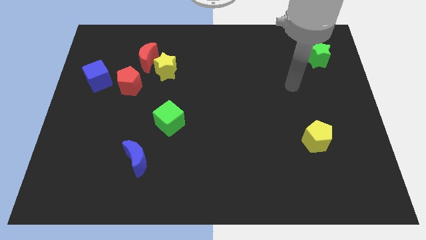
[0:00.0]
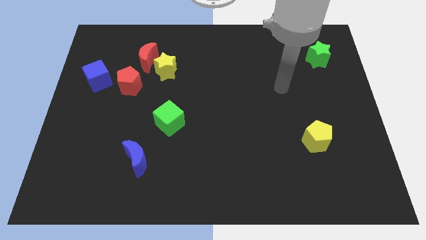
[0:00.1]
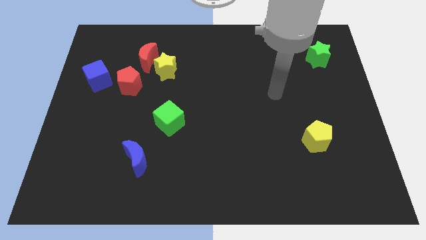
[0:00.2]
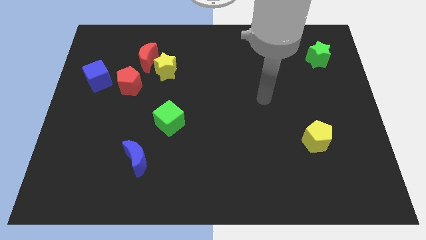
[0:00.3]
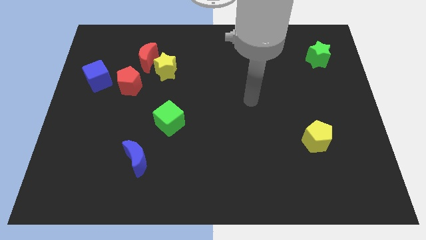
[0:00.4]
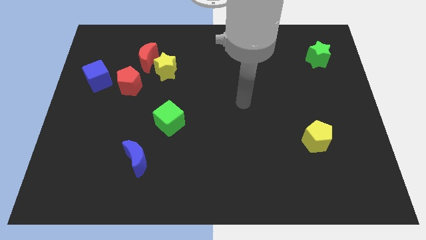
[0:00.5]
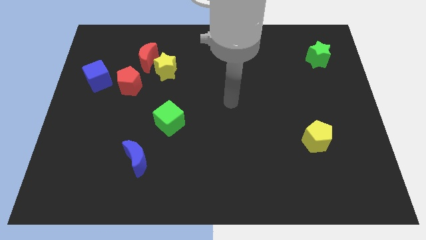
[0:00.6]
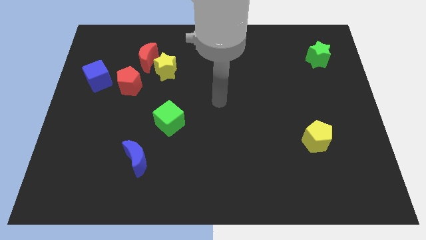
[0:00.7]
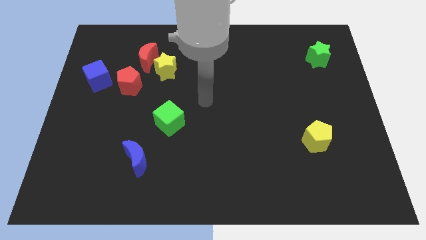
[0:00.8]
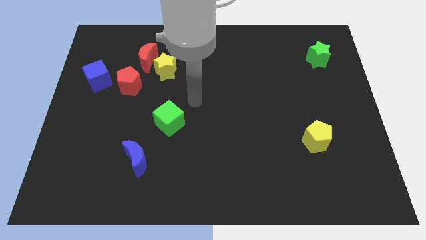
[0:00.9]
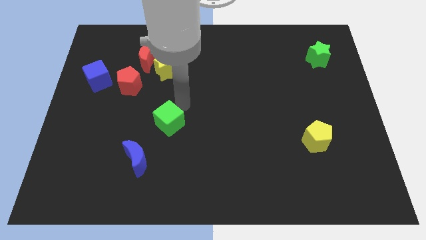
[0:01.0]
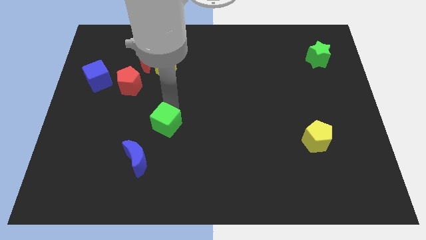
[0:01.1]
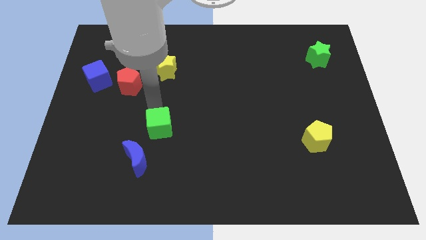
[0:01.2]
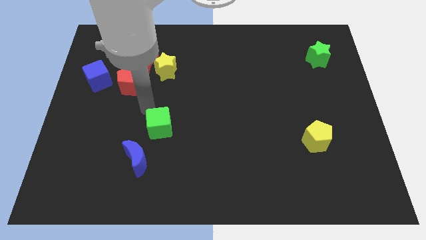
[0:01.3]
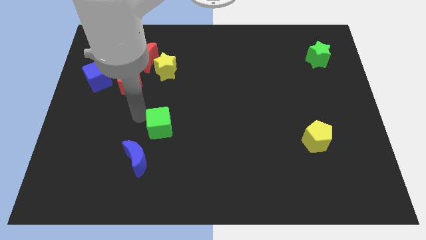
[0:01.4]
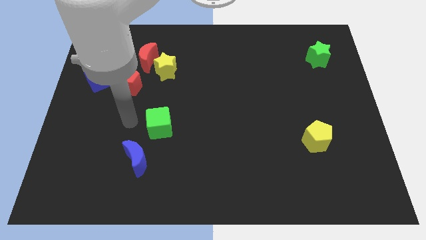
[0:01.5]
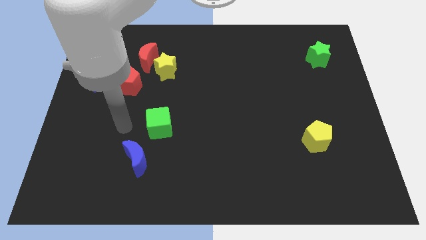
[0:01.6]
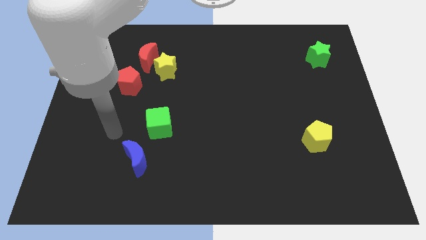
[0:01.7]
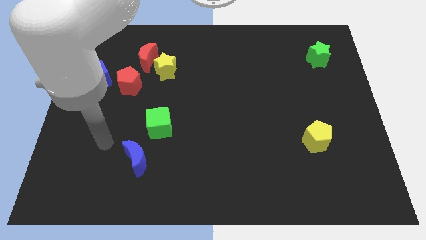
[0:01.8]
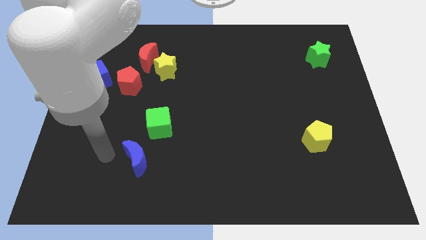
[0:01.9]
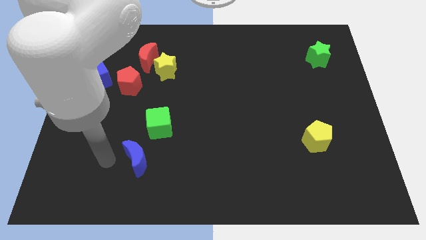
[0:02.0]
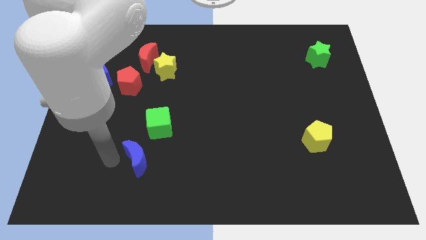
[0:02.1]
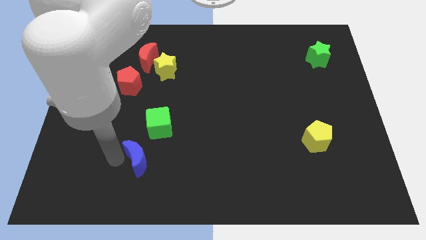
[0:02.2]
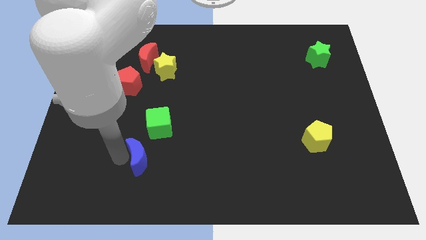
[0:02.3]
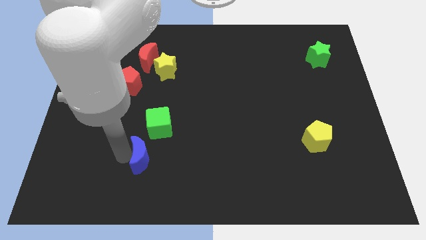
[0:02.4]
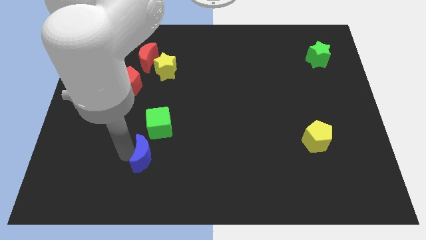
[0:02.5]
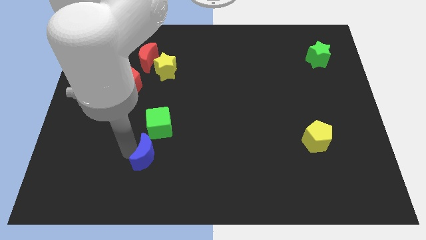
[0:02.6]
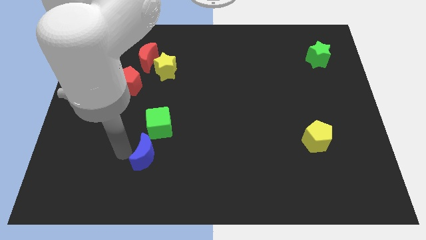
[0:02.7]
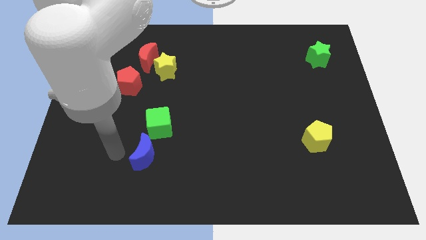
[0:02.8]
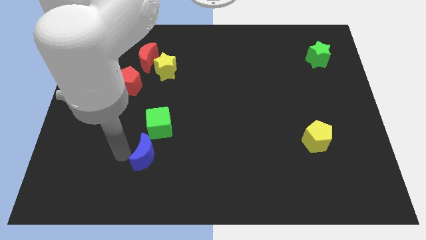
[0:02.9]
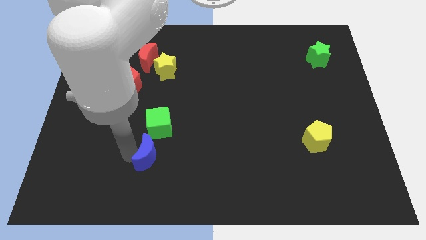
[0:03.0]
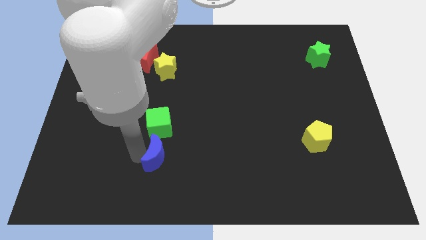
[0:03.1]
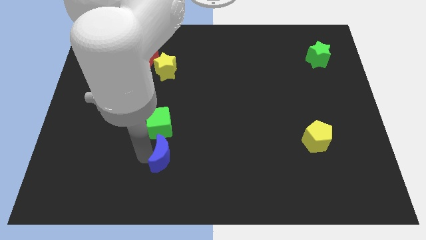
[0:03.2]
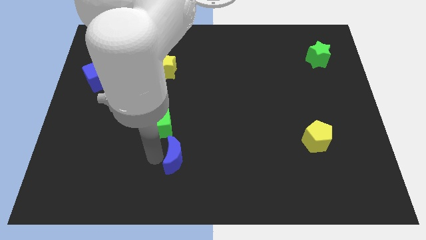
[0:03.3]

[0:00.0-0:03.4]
slide the blue moon right slightly

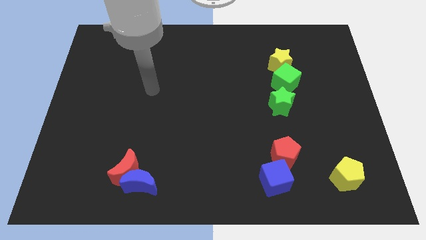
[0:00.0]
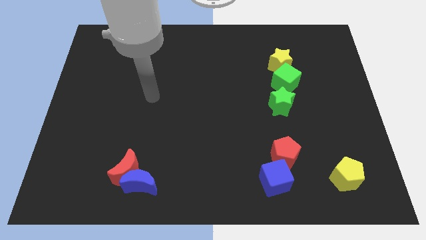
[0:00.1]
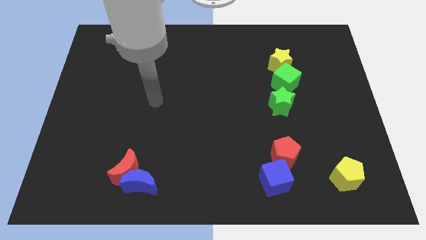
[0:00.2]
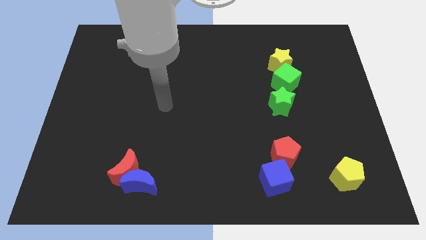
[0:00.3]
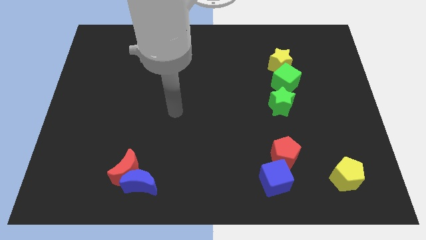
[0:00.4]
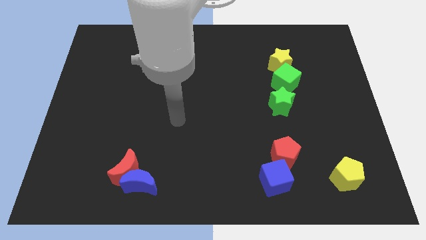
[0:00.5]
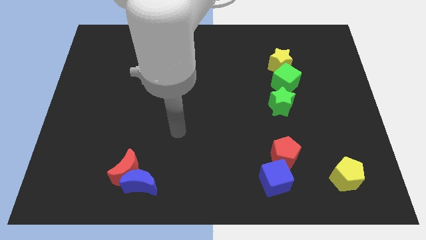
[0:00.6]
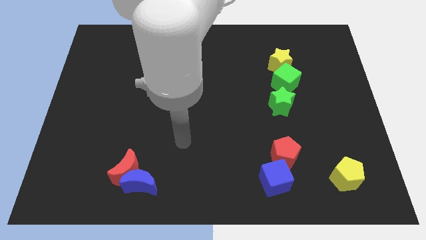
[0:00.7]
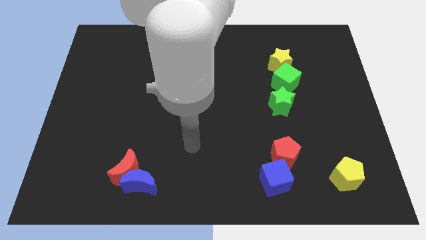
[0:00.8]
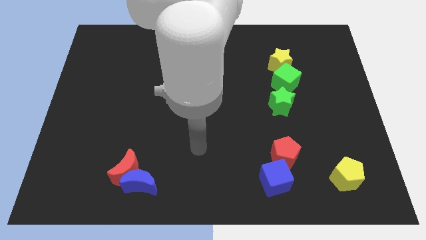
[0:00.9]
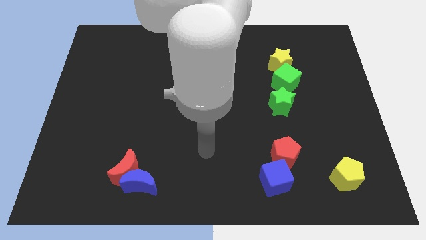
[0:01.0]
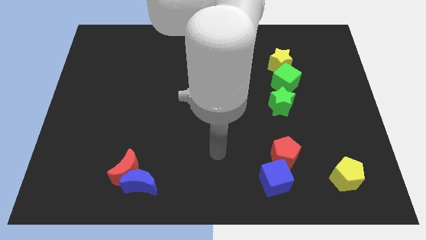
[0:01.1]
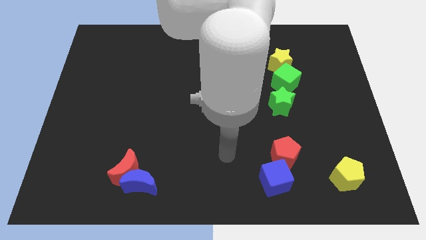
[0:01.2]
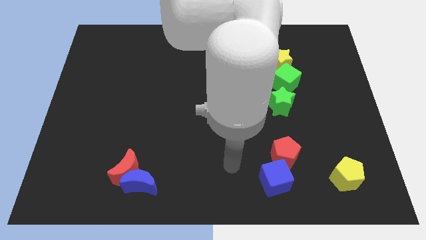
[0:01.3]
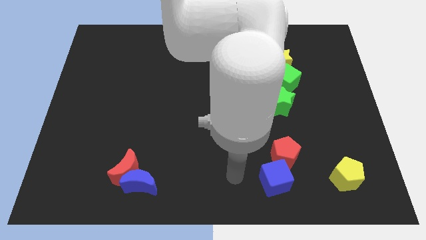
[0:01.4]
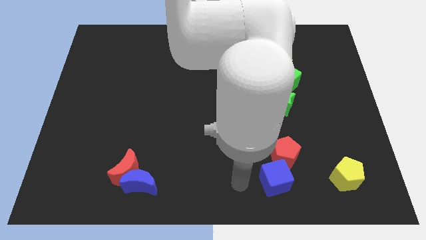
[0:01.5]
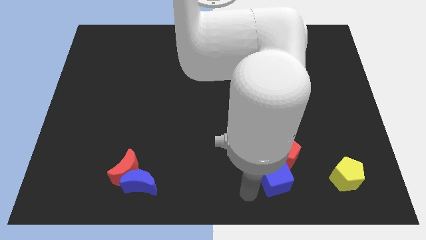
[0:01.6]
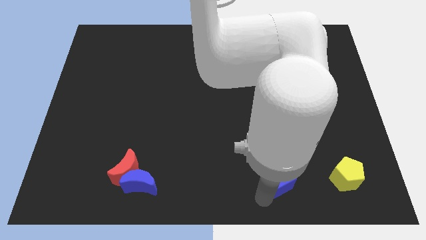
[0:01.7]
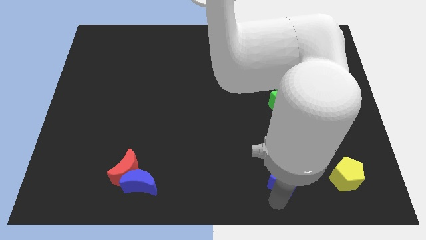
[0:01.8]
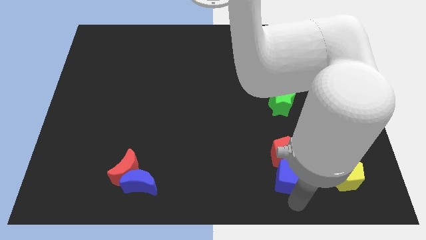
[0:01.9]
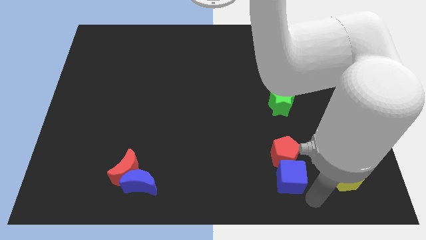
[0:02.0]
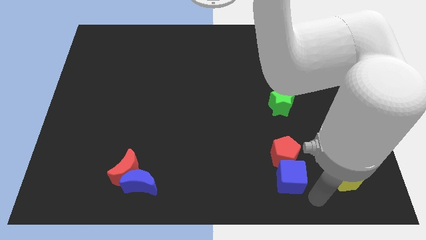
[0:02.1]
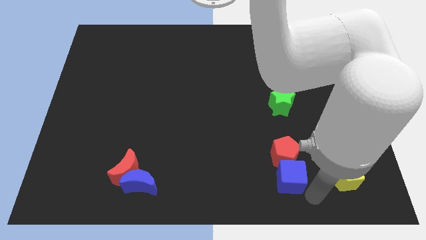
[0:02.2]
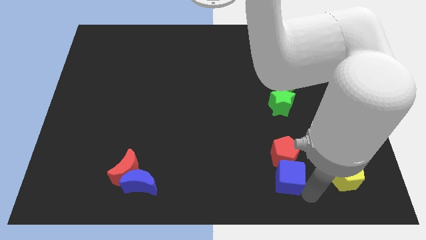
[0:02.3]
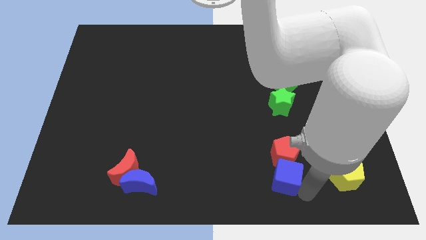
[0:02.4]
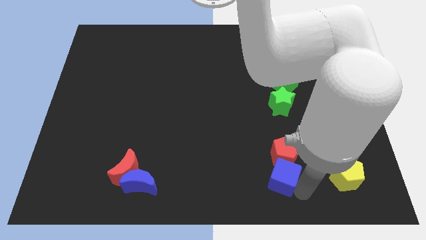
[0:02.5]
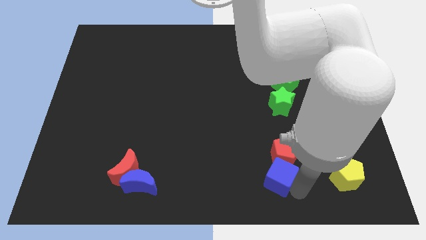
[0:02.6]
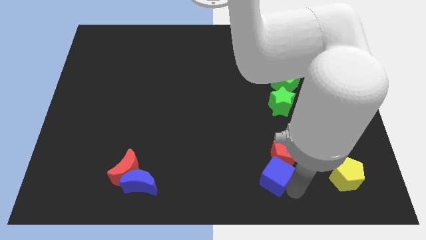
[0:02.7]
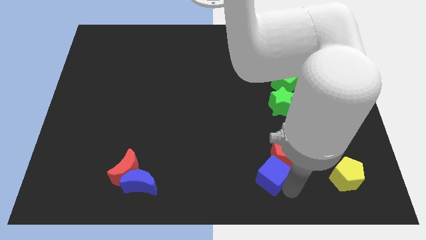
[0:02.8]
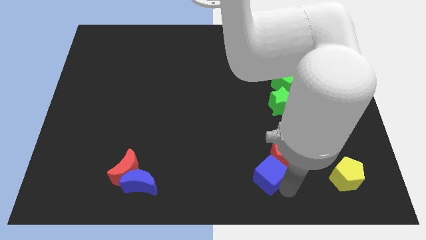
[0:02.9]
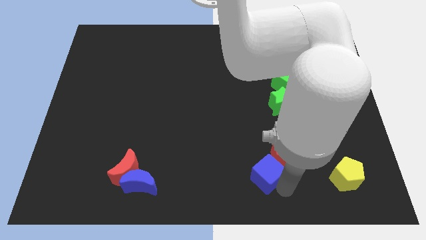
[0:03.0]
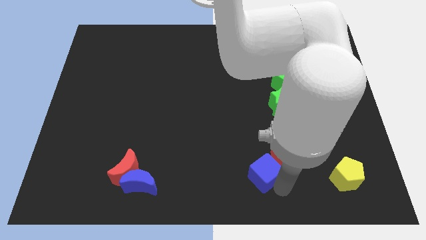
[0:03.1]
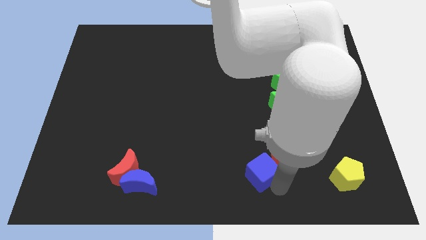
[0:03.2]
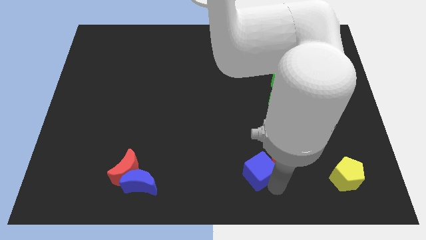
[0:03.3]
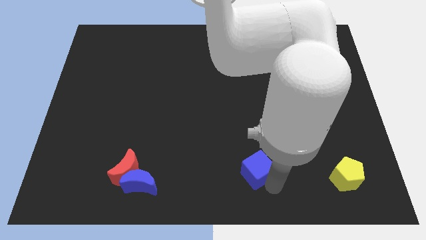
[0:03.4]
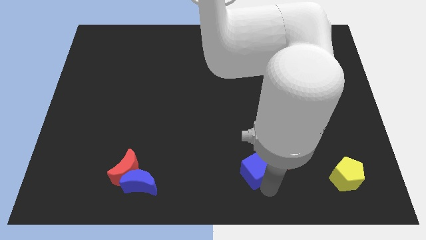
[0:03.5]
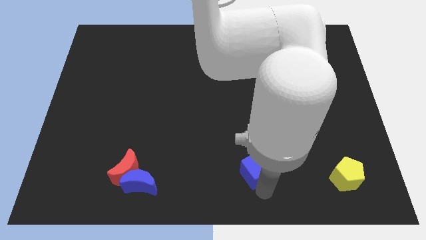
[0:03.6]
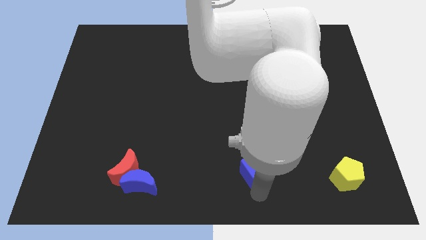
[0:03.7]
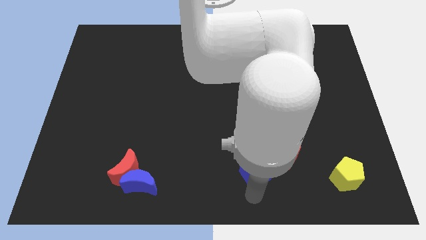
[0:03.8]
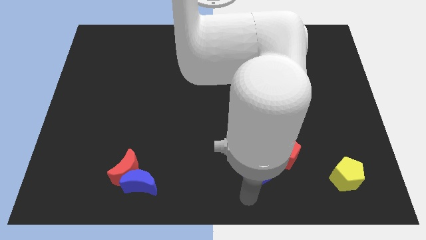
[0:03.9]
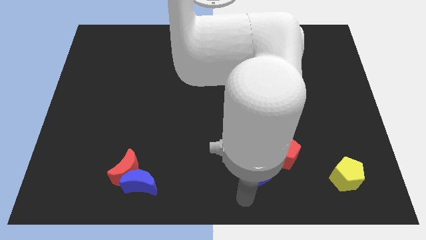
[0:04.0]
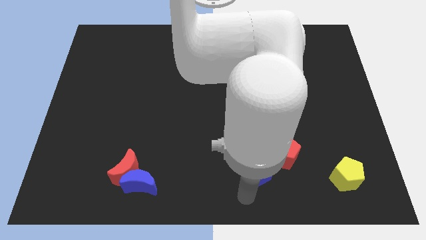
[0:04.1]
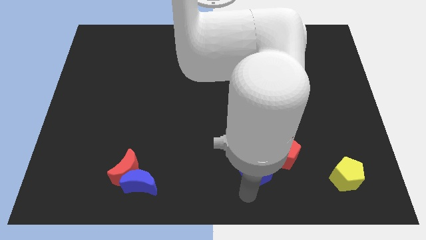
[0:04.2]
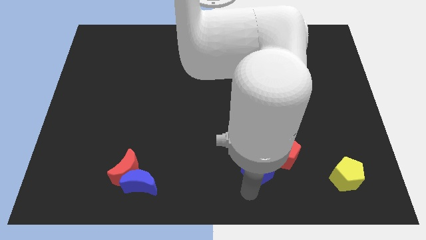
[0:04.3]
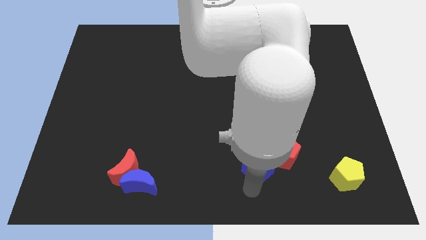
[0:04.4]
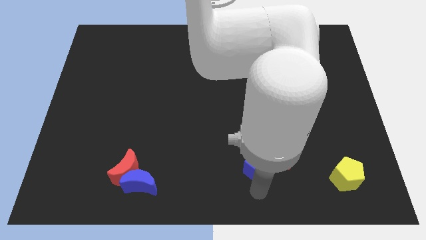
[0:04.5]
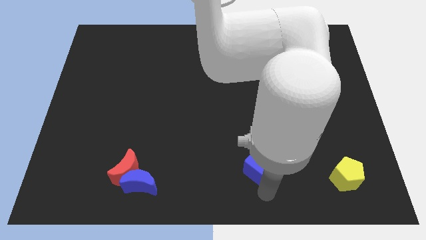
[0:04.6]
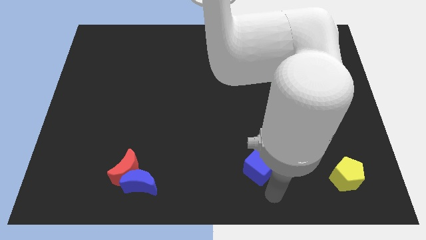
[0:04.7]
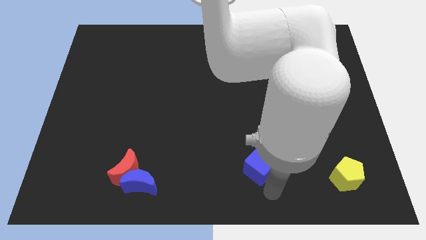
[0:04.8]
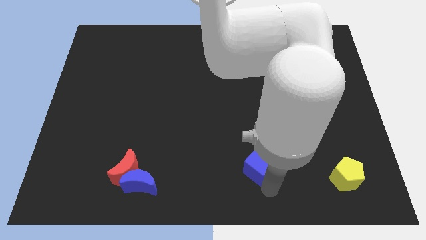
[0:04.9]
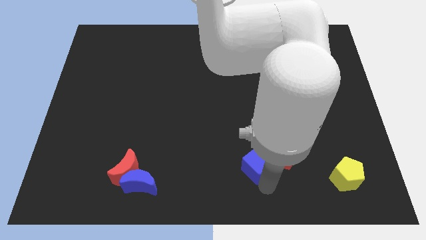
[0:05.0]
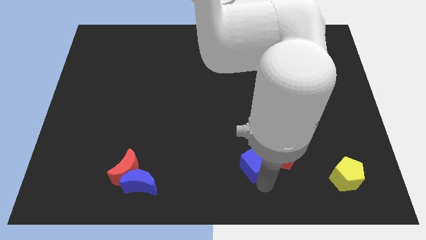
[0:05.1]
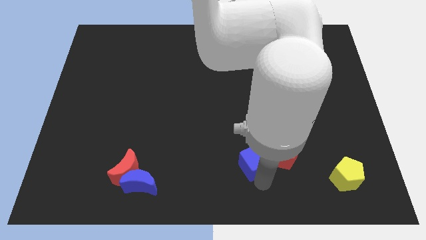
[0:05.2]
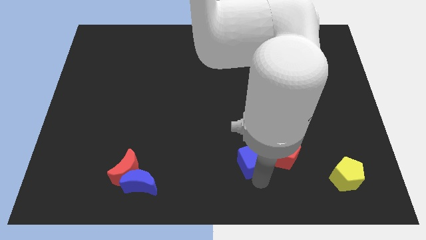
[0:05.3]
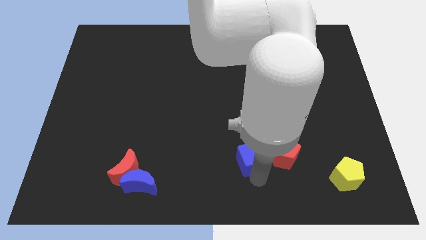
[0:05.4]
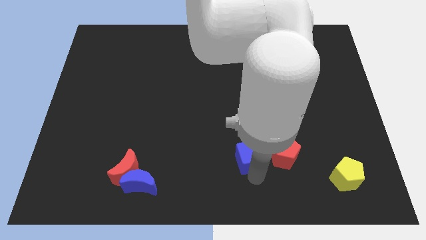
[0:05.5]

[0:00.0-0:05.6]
slide the blue cube slightly diagonally upwards and to the left
